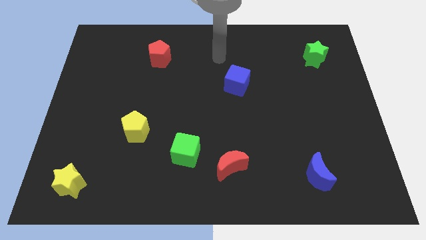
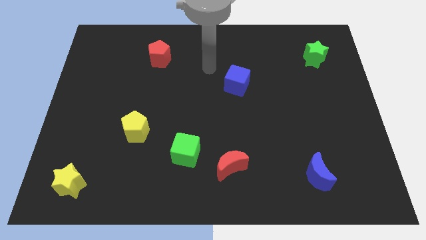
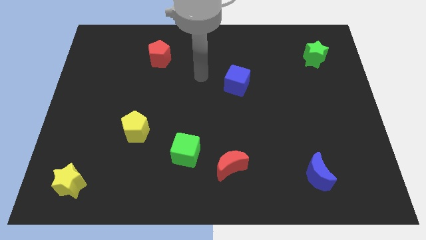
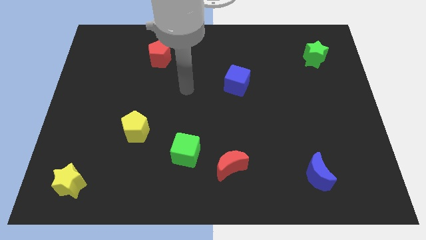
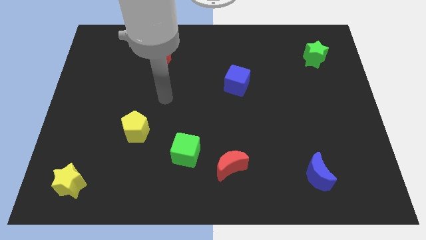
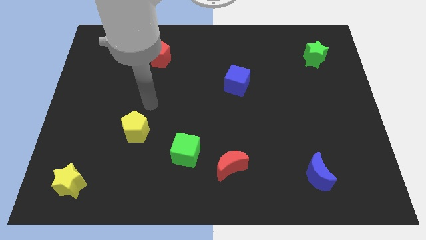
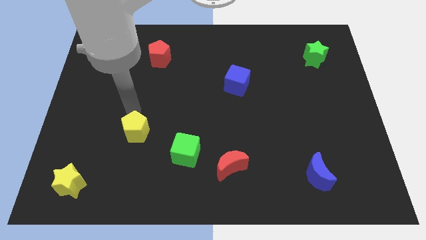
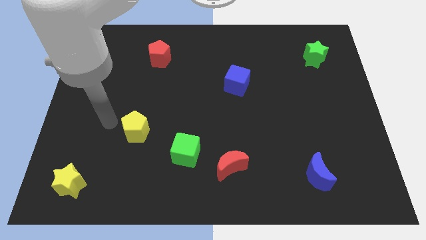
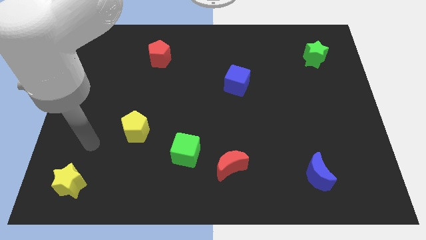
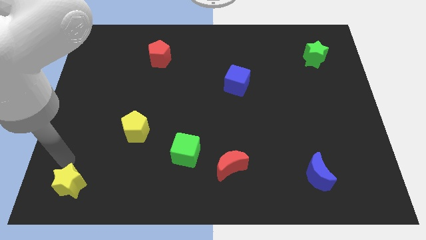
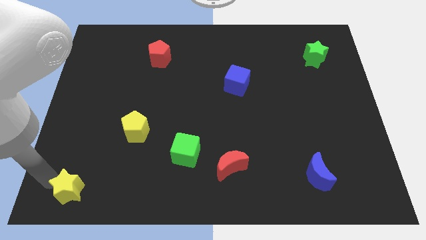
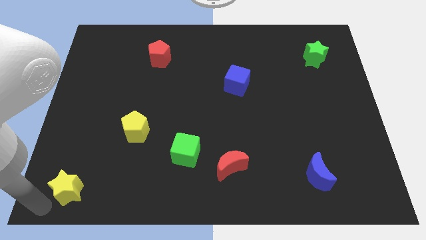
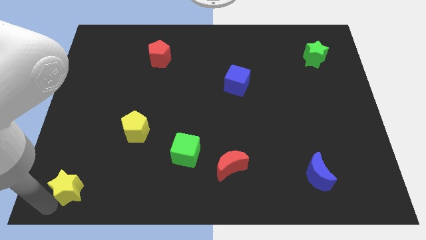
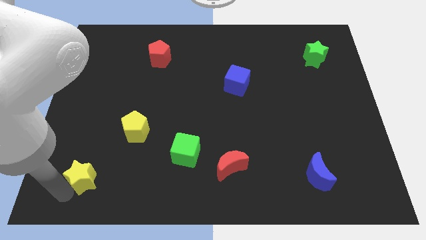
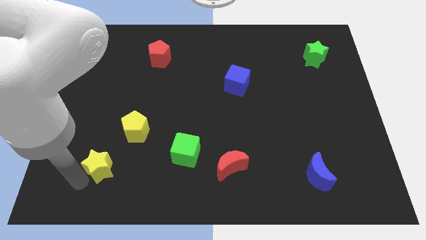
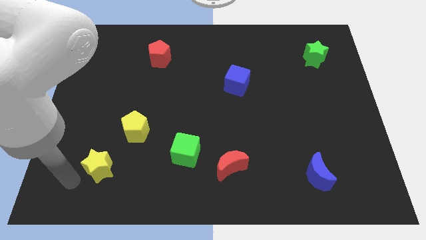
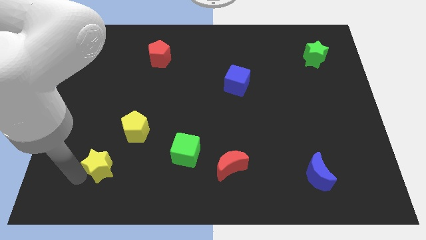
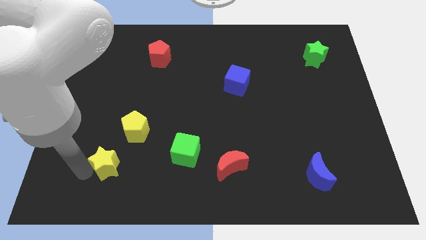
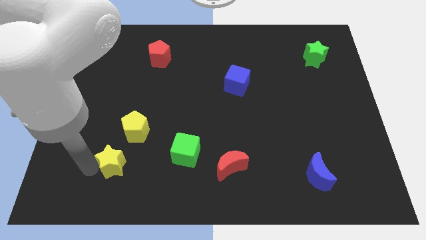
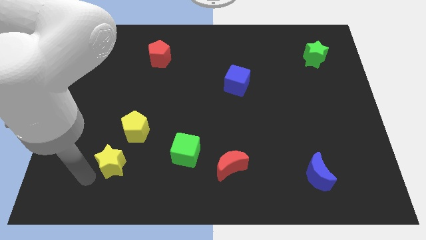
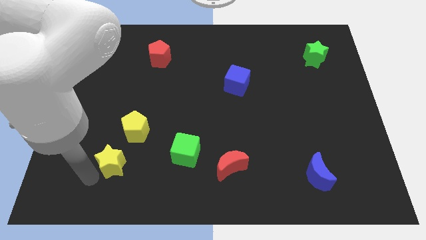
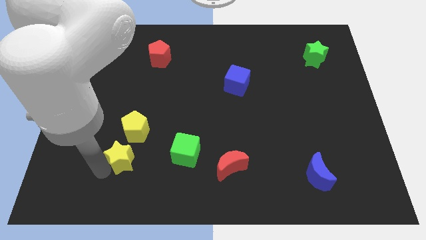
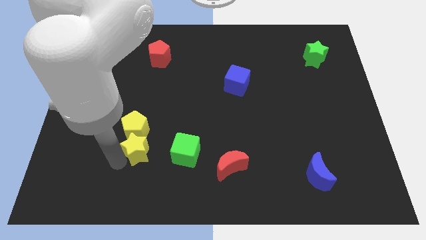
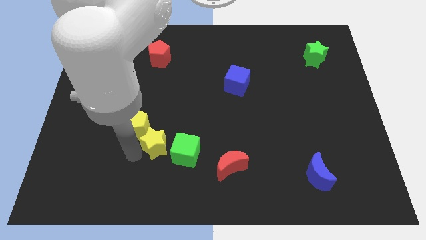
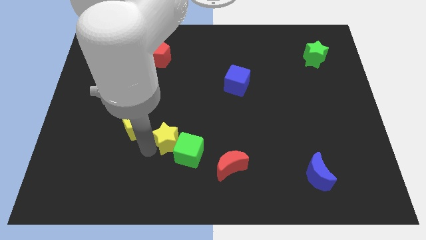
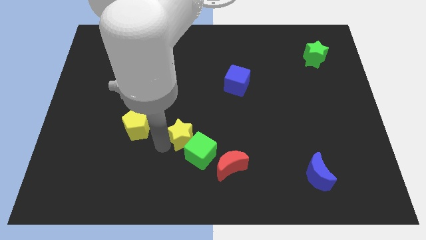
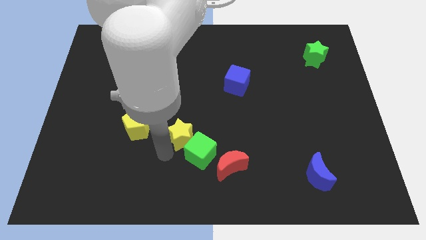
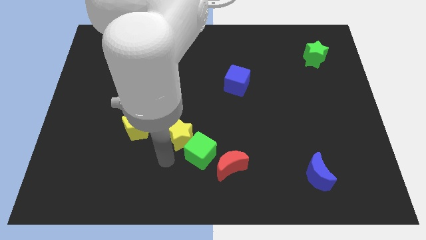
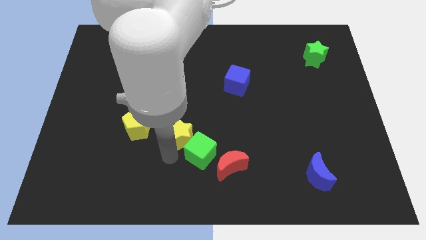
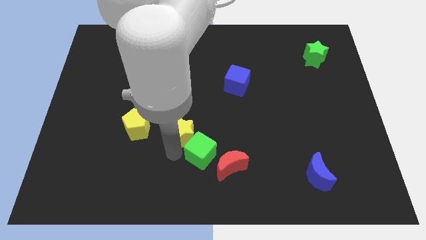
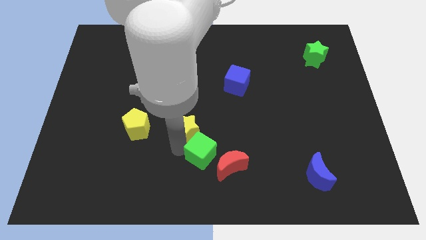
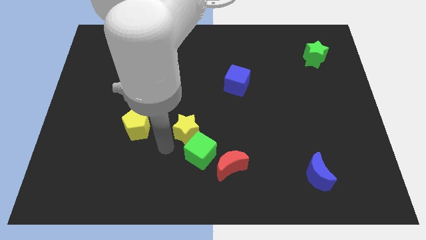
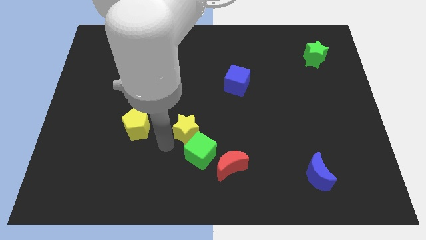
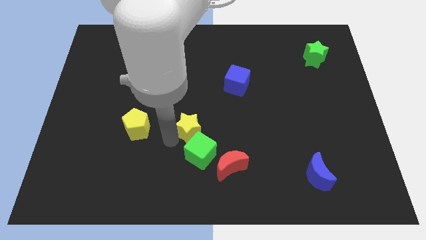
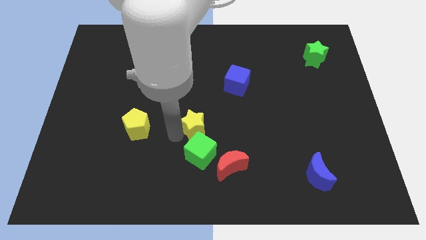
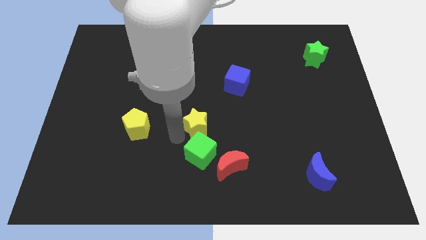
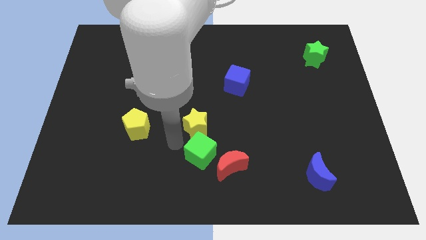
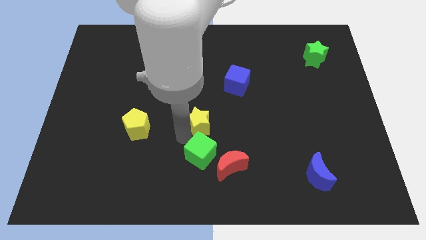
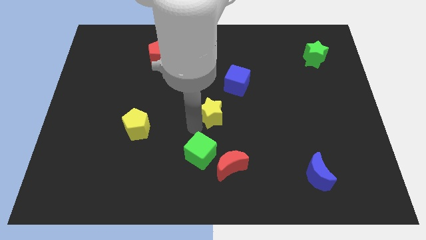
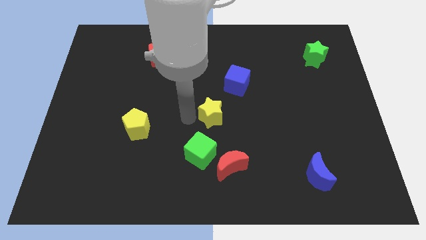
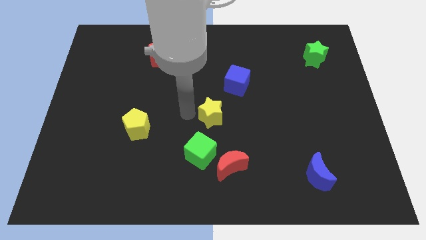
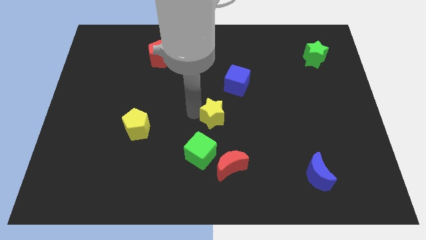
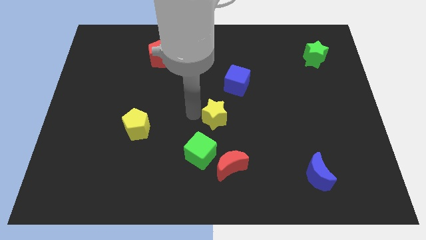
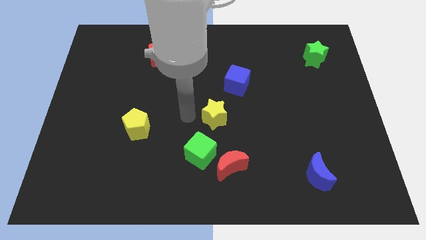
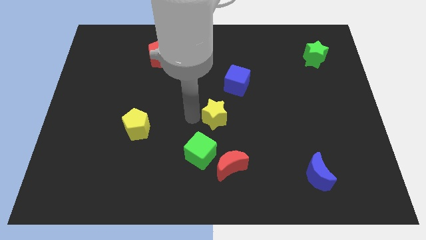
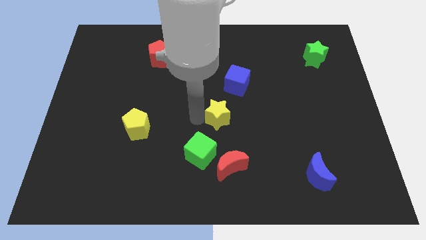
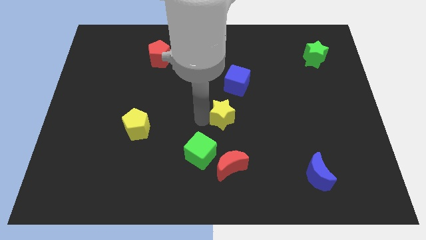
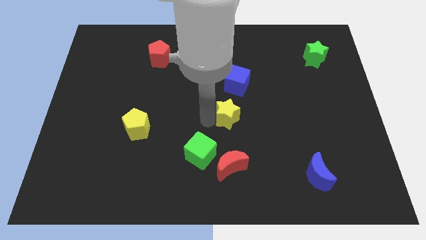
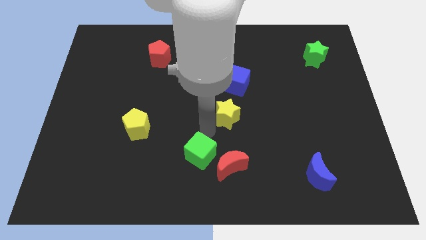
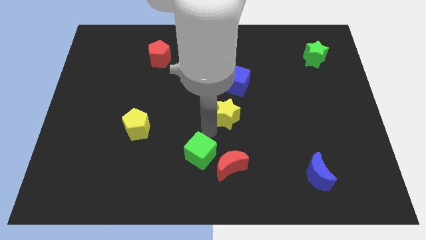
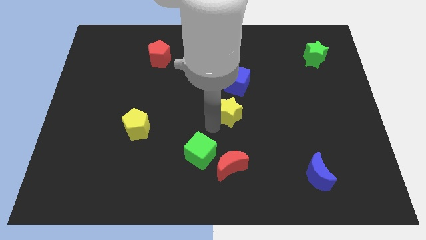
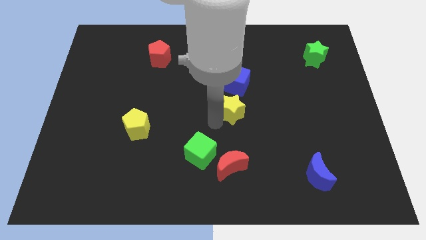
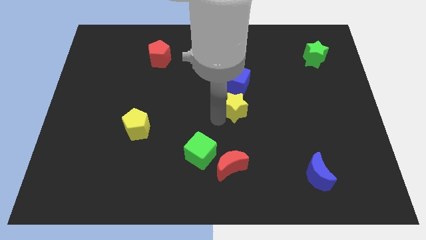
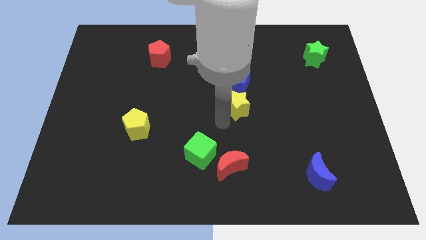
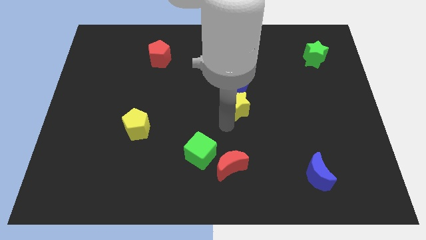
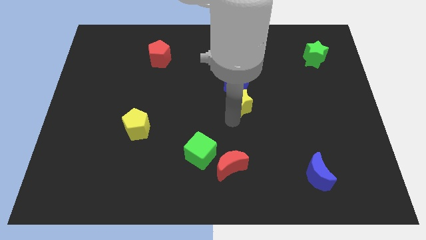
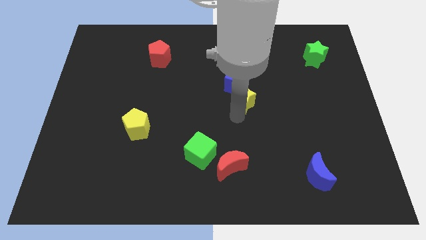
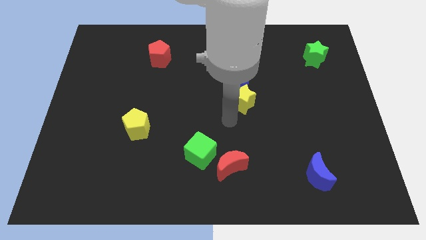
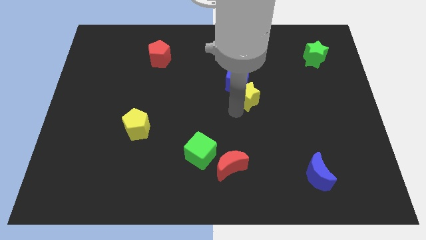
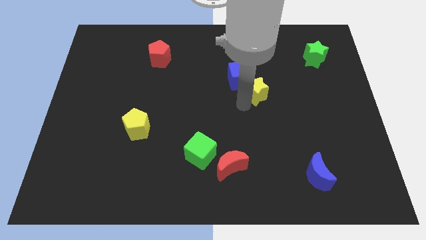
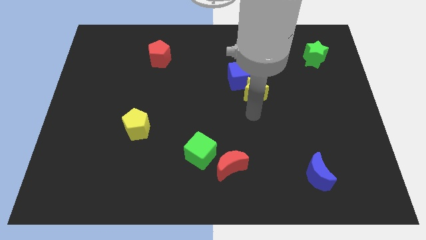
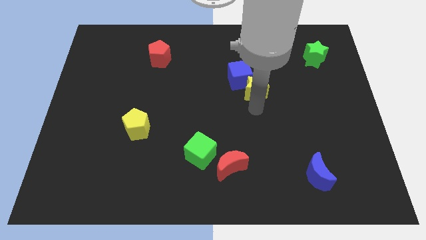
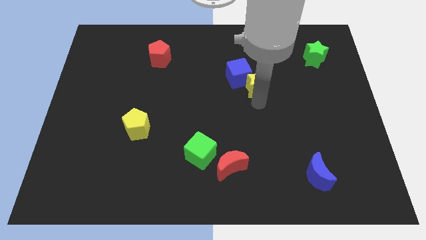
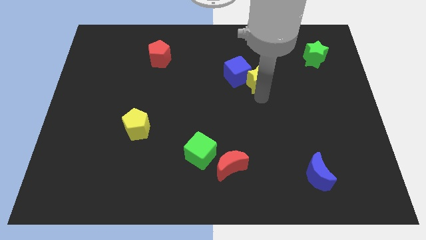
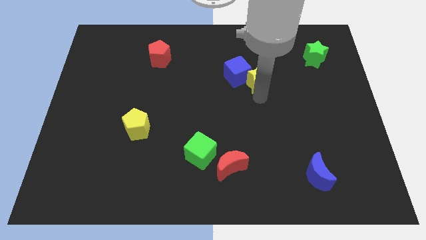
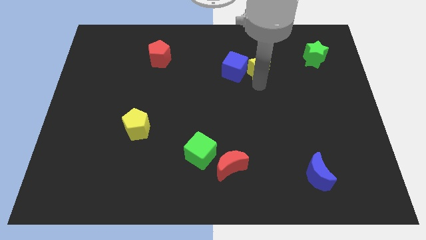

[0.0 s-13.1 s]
slide the yellow star to the top right of the blue cube
